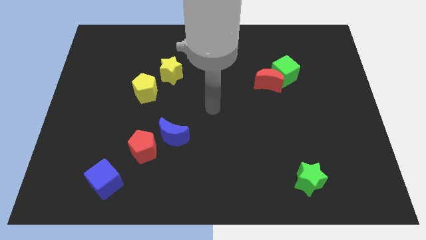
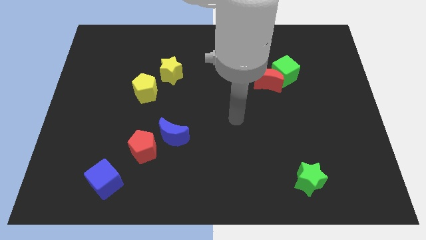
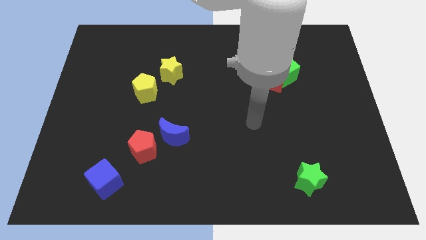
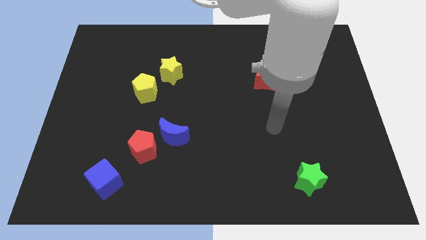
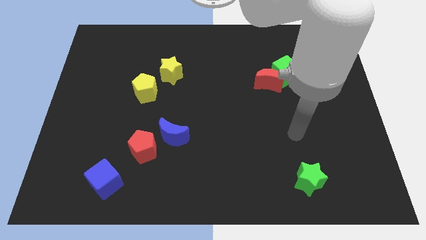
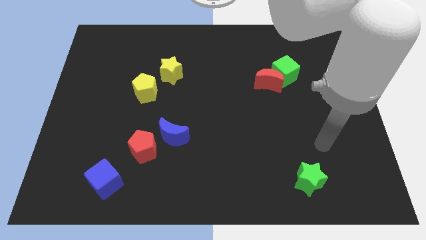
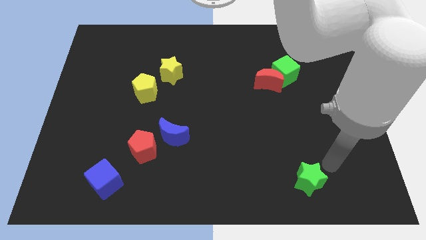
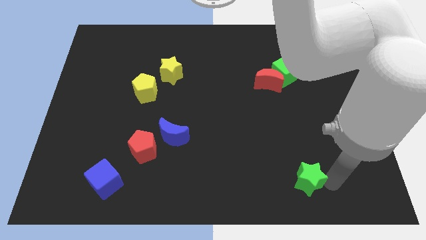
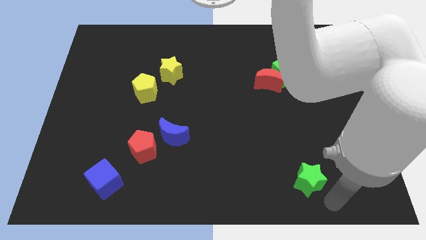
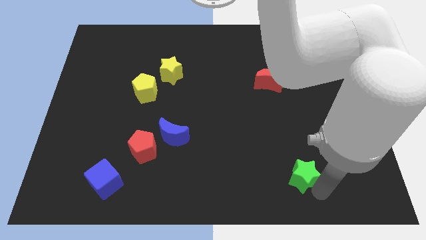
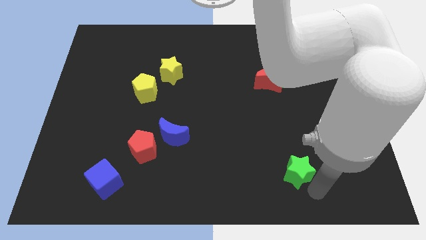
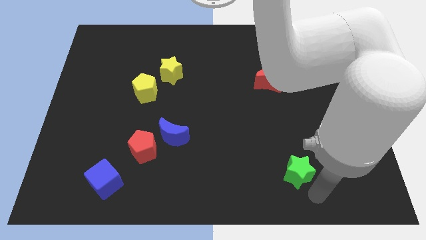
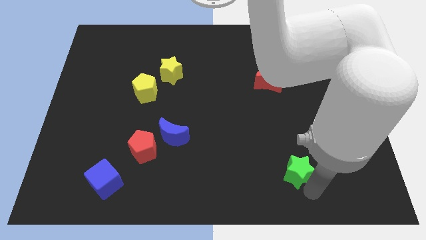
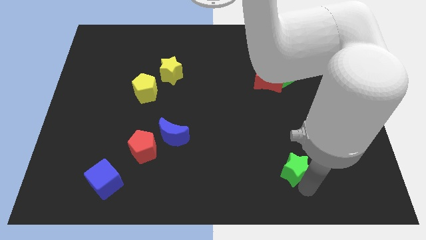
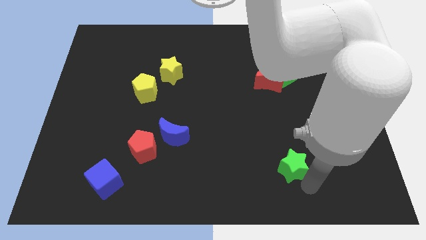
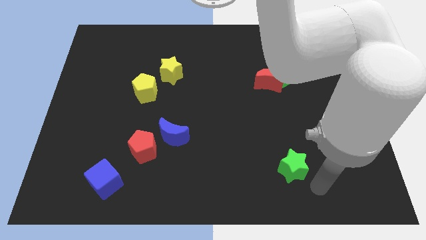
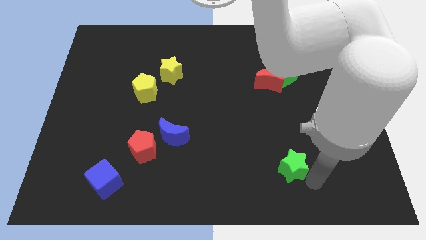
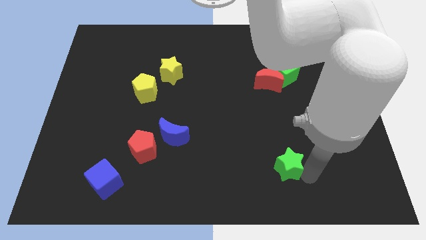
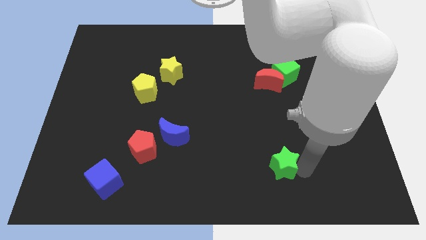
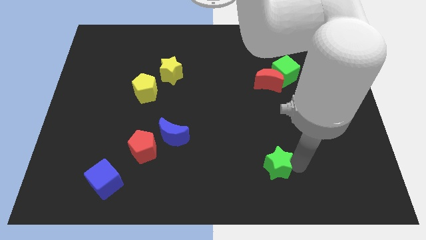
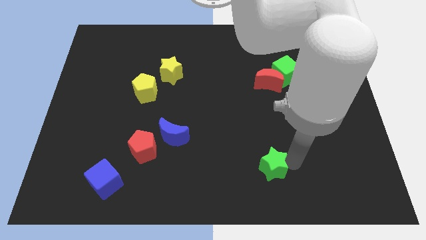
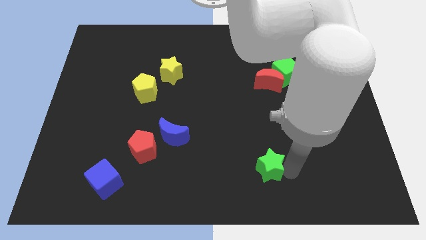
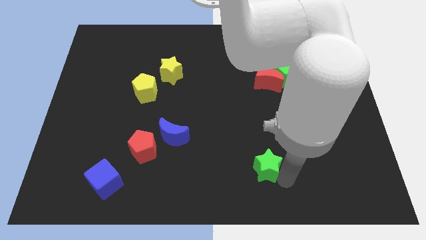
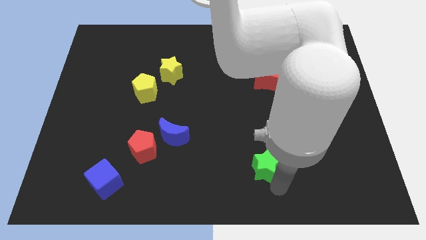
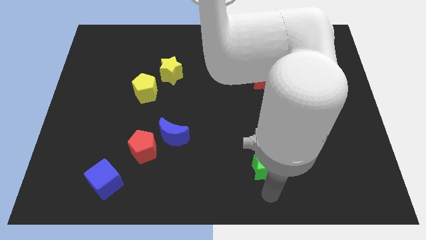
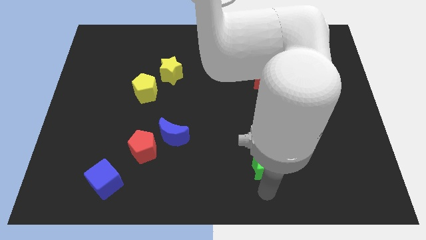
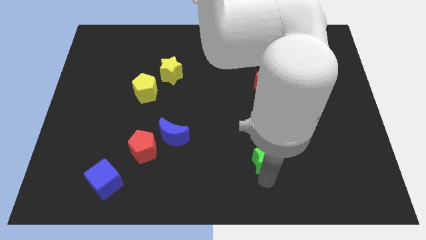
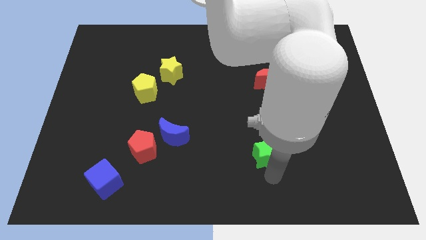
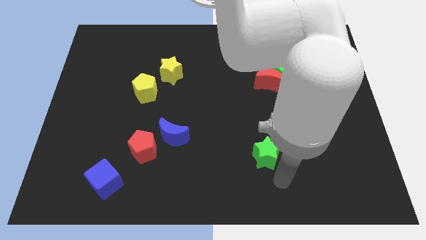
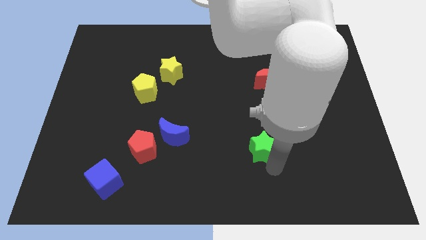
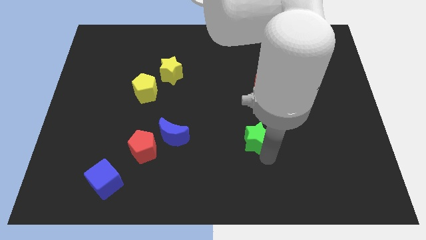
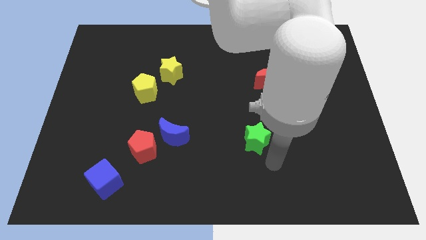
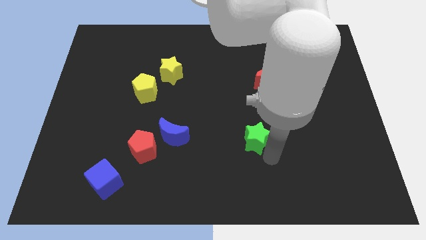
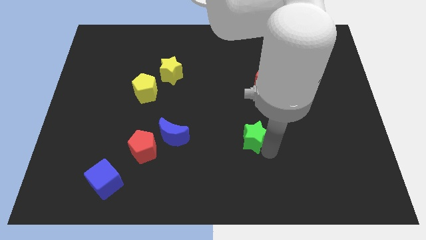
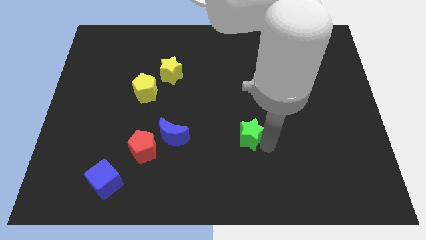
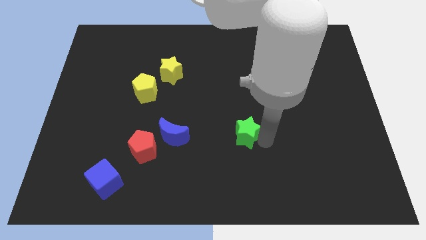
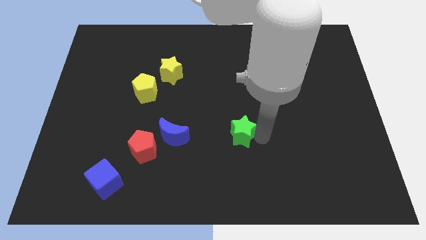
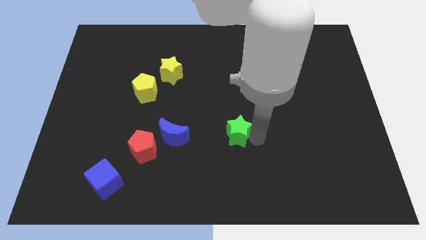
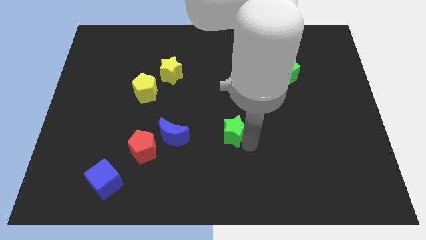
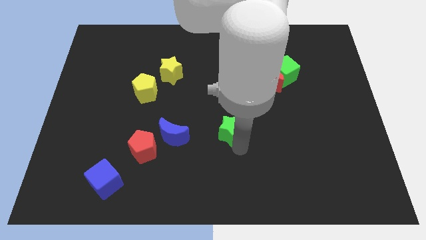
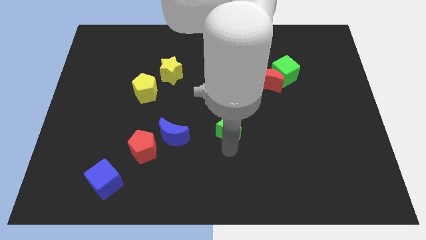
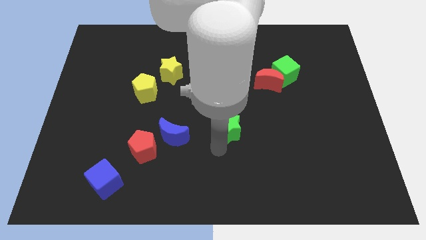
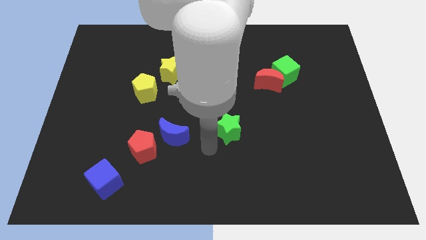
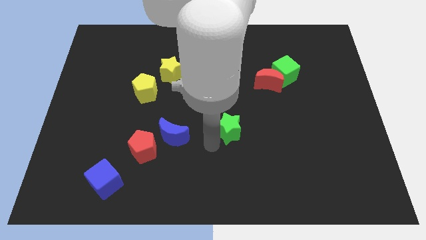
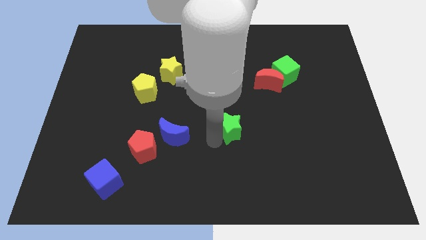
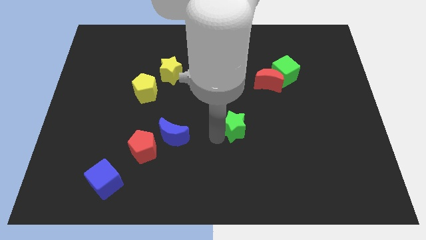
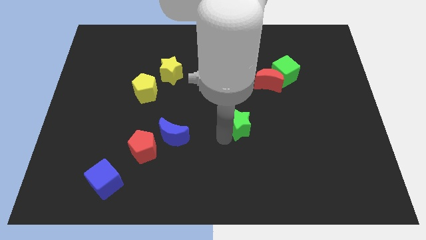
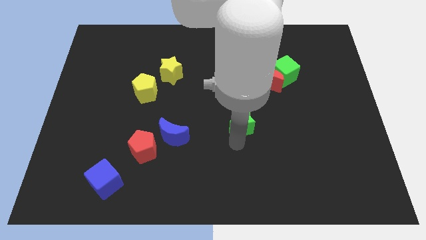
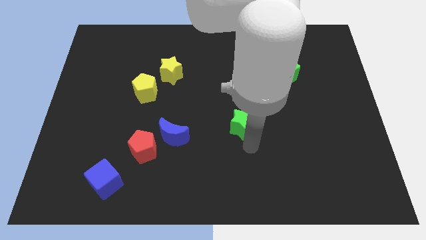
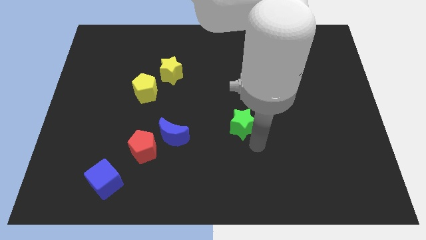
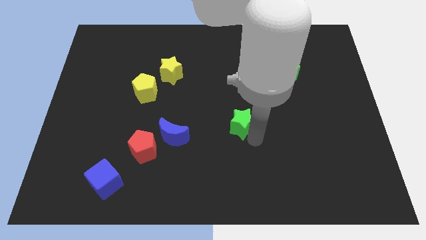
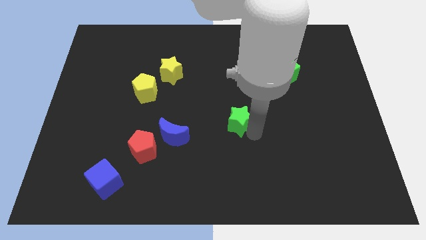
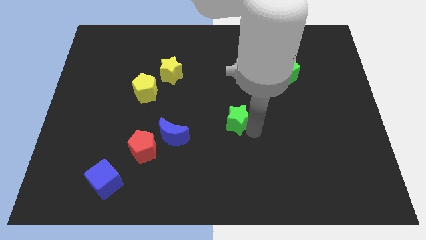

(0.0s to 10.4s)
move the green star up and left diagonally

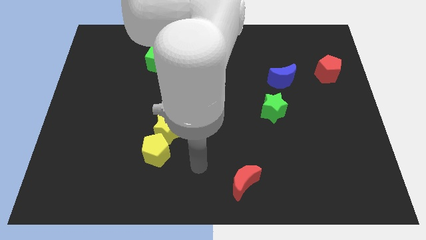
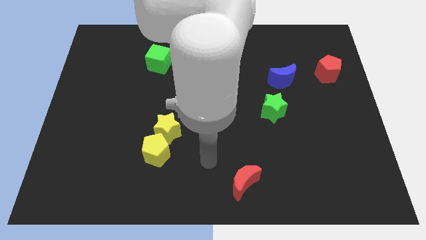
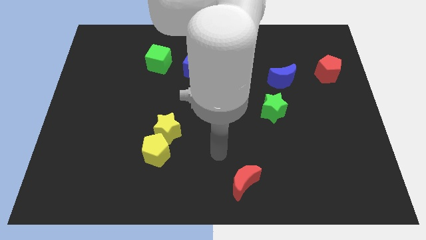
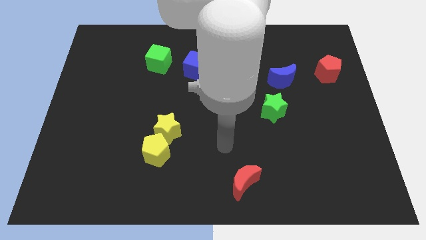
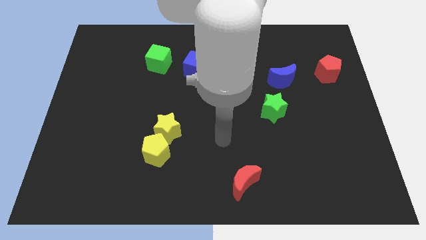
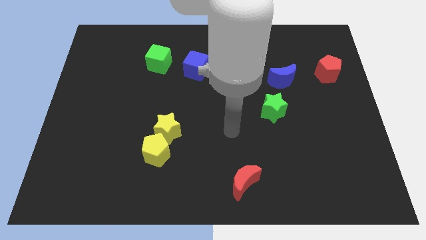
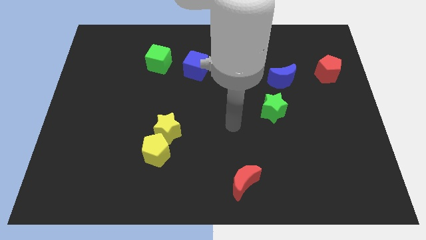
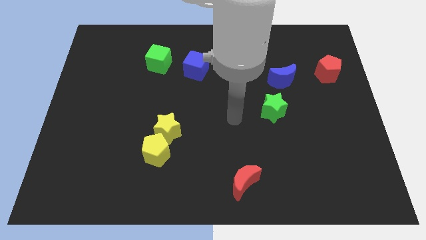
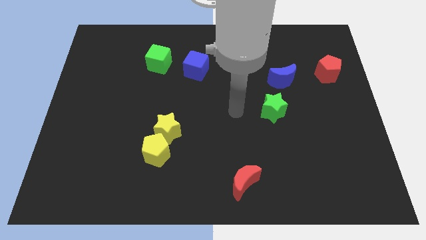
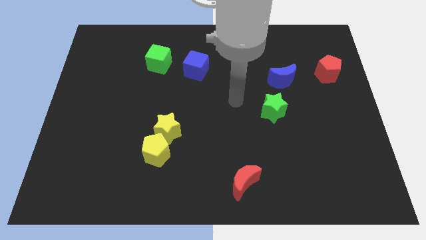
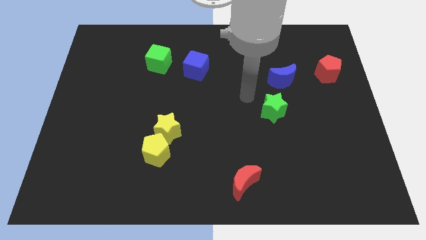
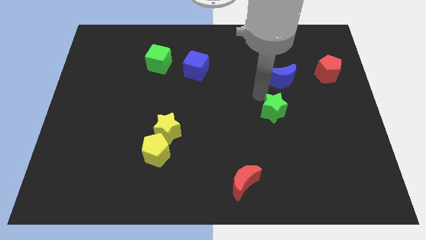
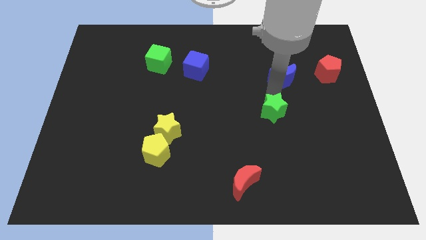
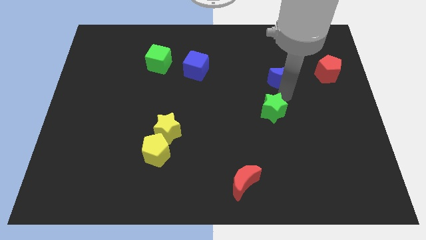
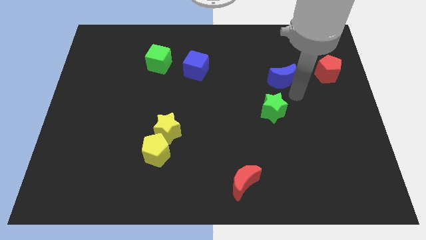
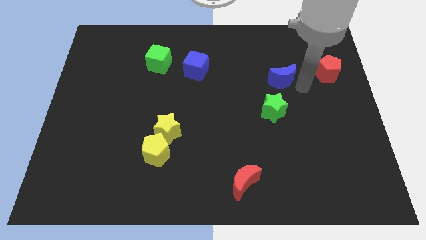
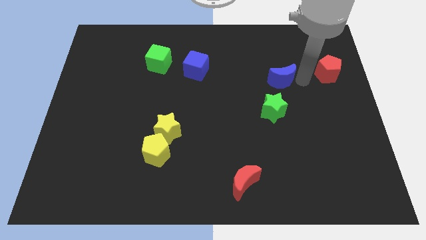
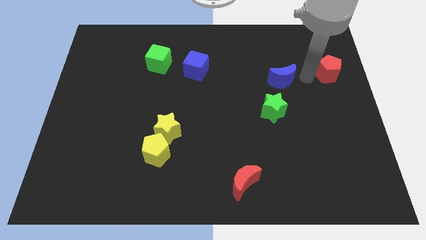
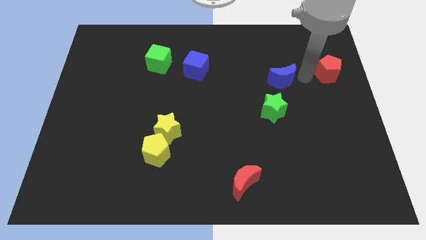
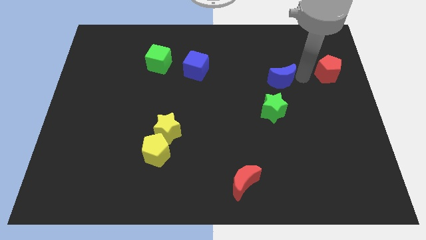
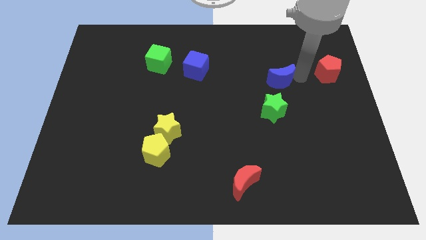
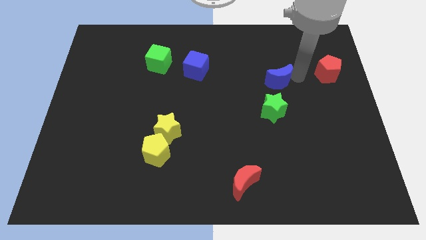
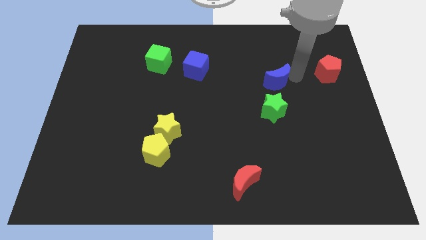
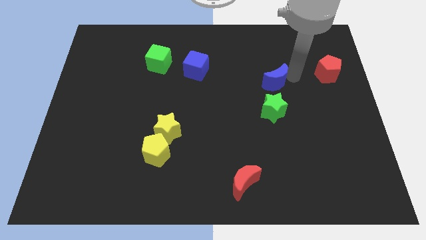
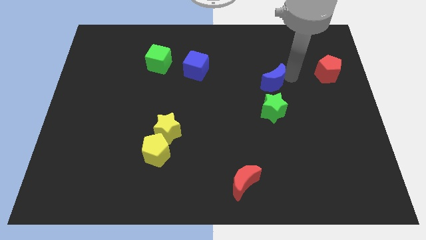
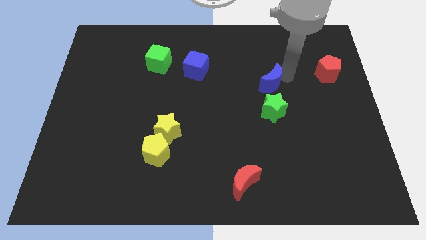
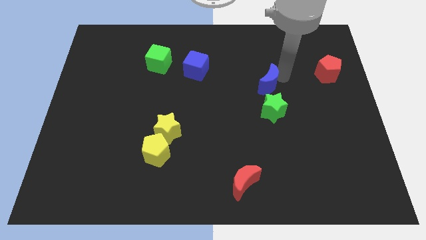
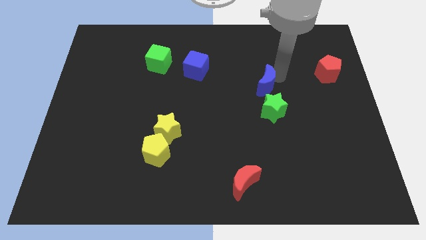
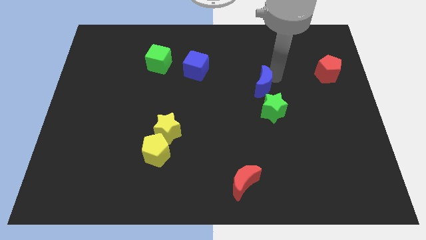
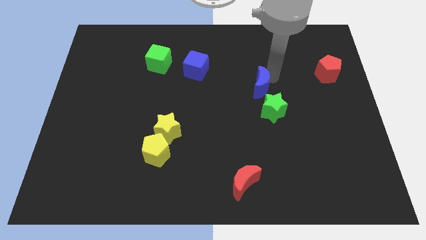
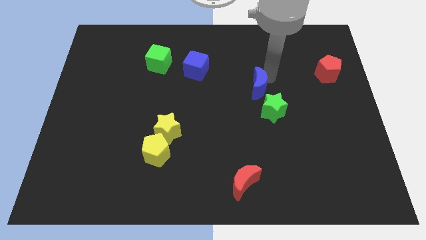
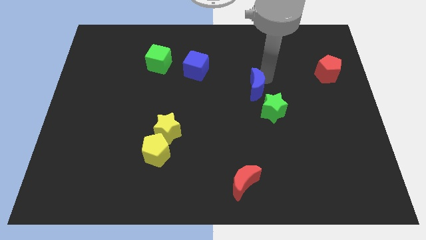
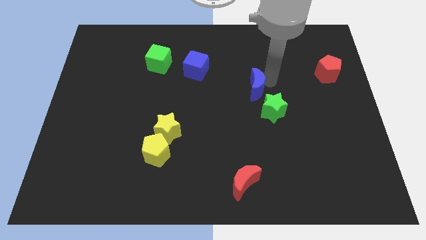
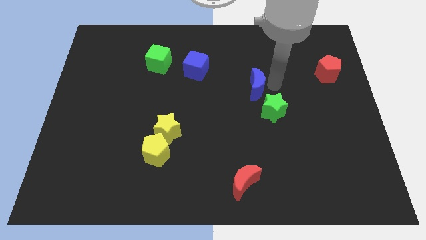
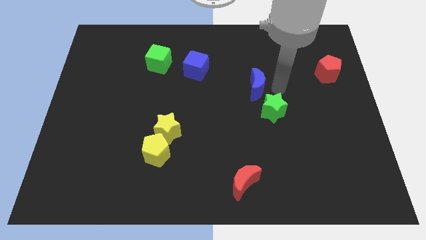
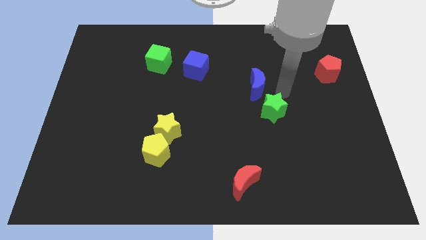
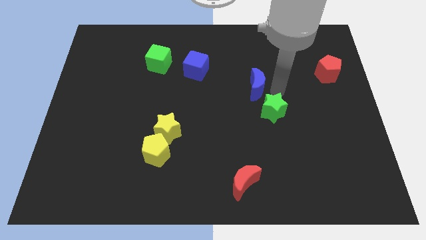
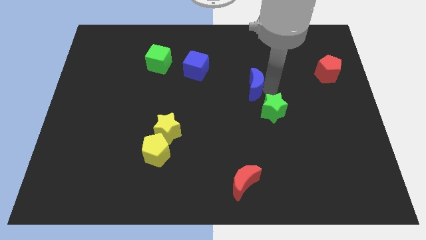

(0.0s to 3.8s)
slightly push the blue moon to the left
